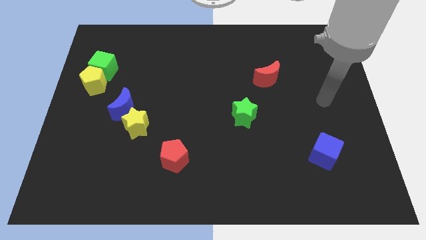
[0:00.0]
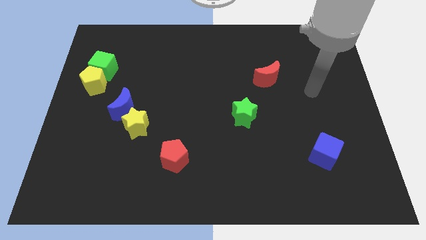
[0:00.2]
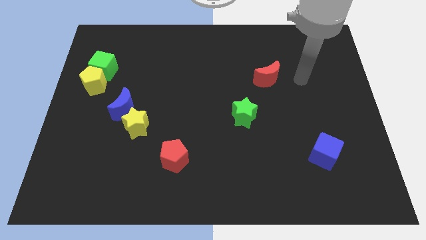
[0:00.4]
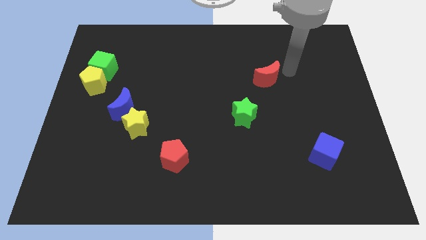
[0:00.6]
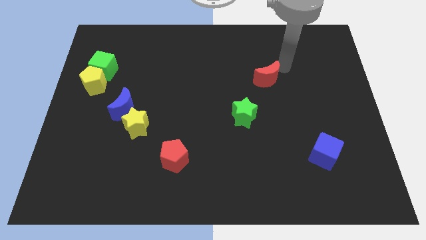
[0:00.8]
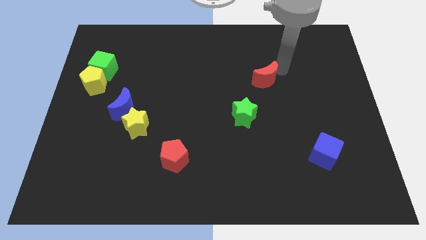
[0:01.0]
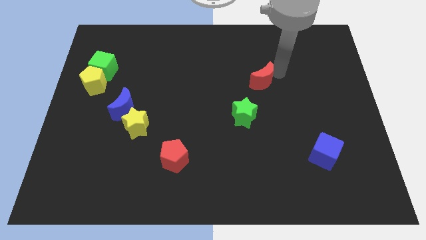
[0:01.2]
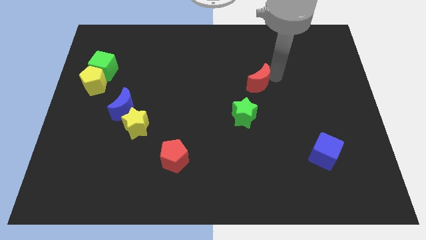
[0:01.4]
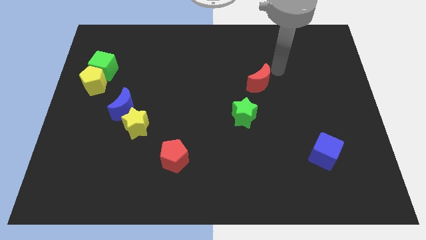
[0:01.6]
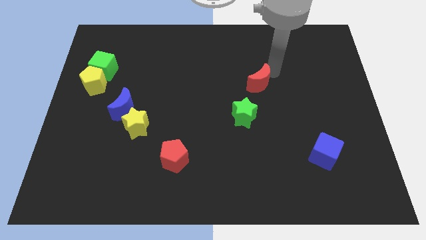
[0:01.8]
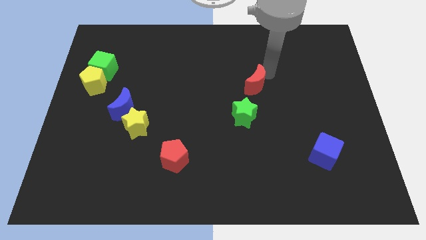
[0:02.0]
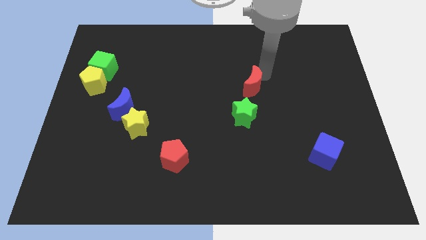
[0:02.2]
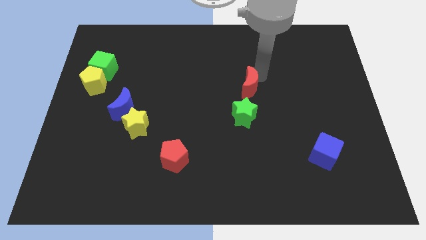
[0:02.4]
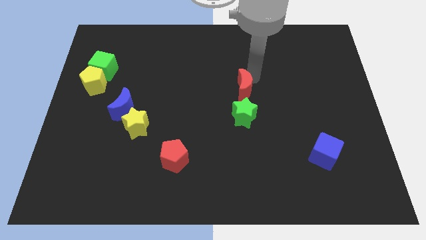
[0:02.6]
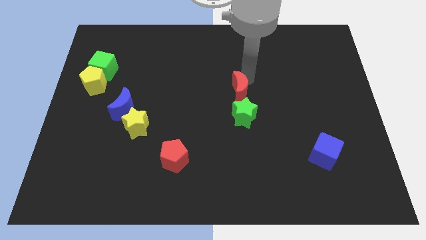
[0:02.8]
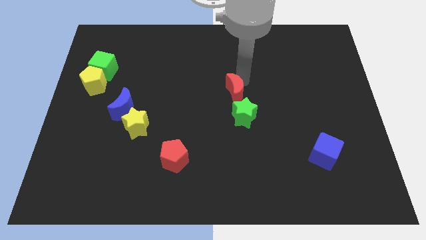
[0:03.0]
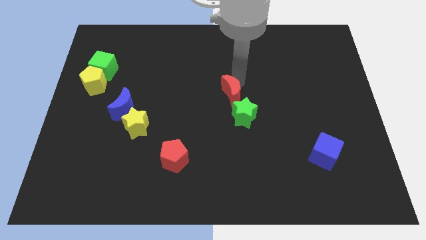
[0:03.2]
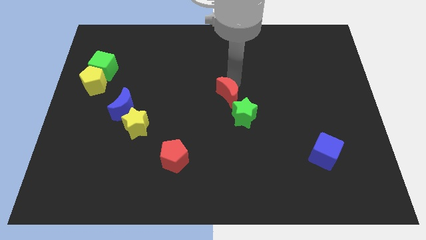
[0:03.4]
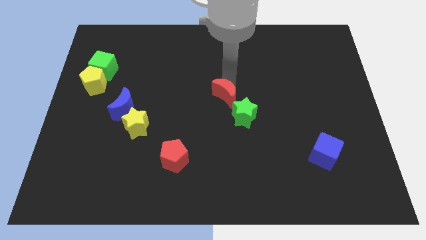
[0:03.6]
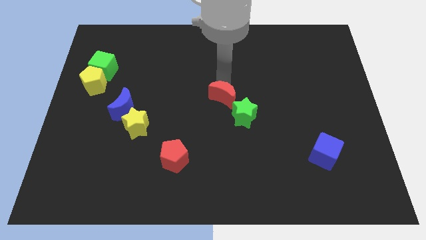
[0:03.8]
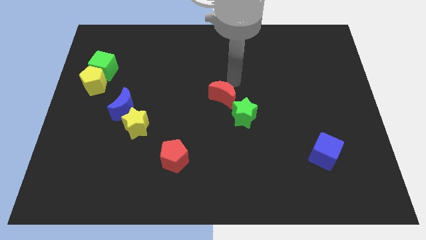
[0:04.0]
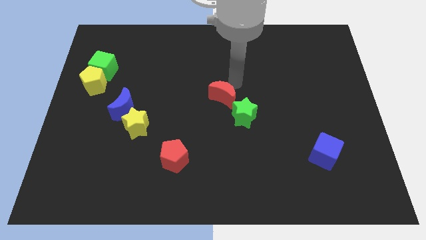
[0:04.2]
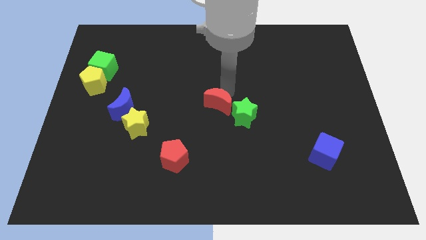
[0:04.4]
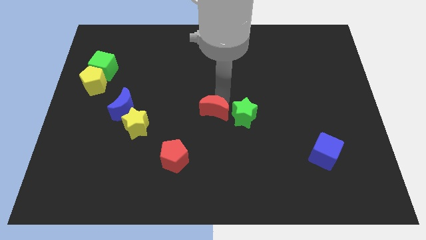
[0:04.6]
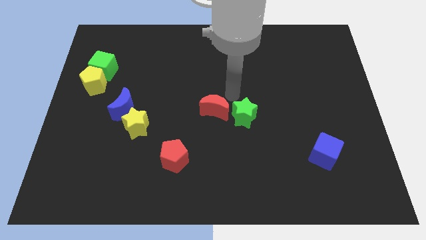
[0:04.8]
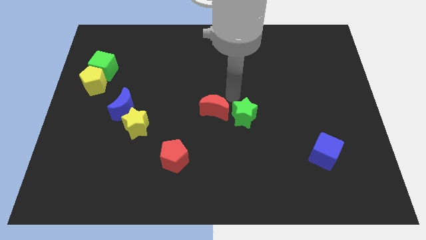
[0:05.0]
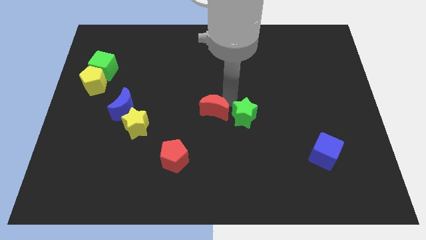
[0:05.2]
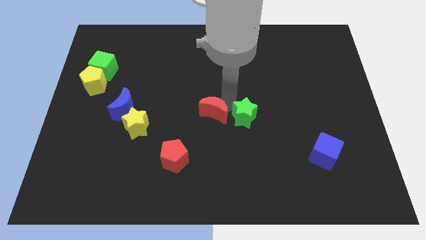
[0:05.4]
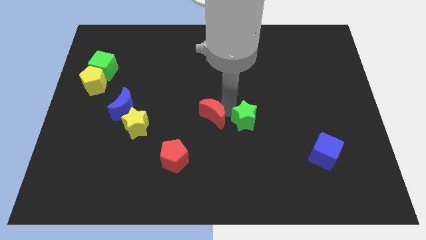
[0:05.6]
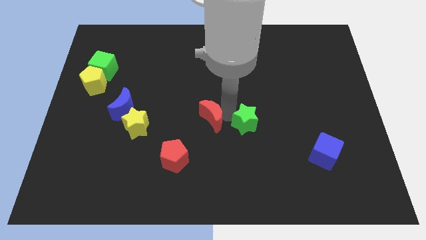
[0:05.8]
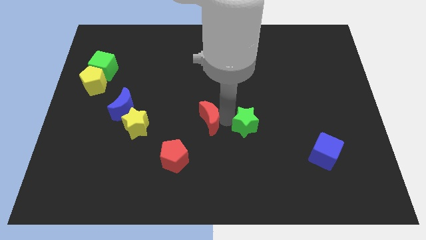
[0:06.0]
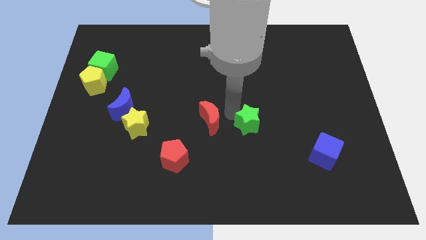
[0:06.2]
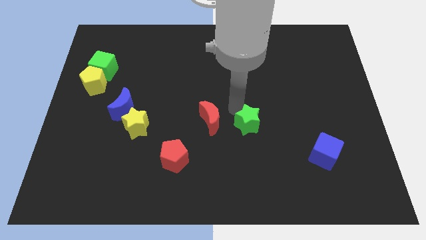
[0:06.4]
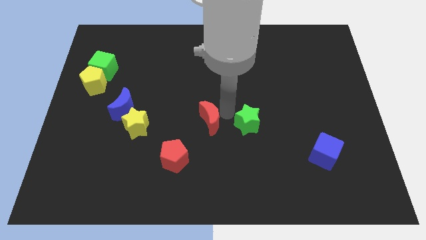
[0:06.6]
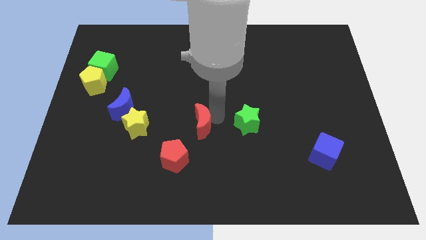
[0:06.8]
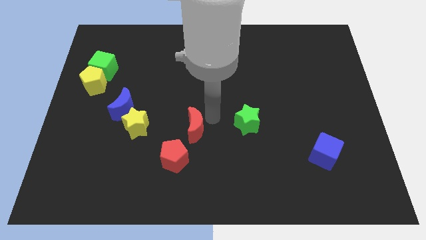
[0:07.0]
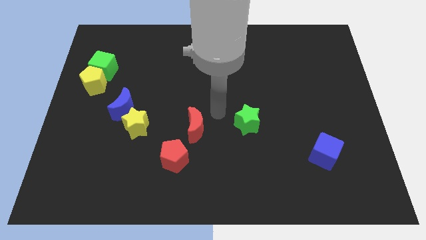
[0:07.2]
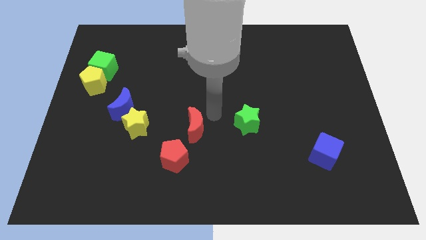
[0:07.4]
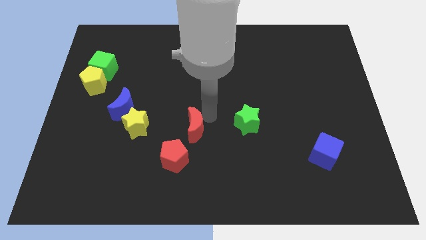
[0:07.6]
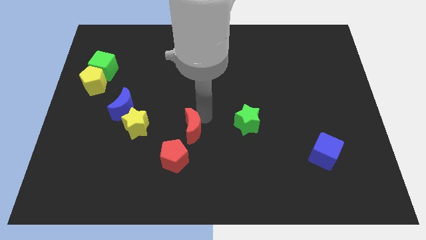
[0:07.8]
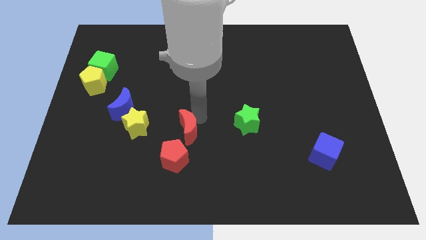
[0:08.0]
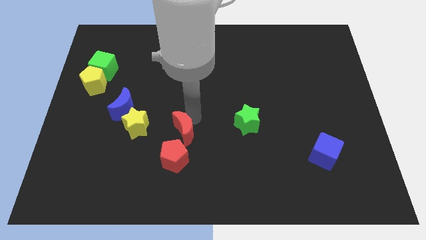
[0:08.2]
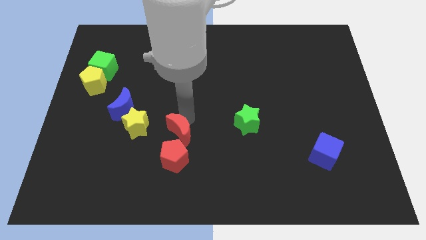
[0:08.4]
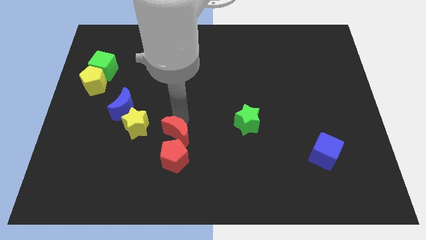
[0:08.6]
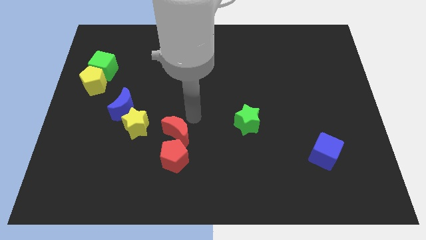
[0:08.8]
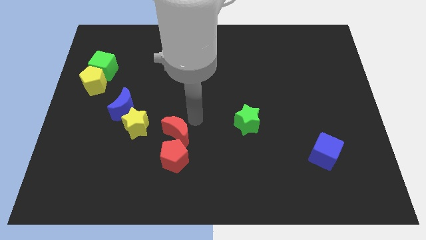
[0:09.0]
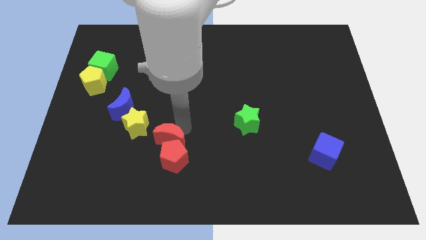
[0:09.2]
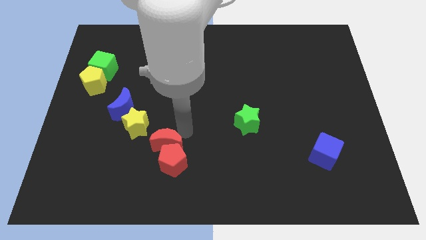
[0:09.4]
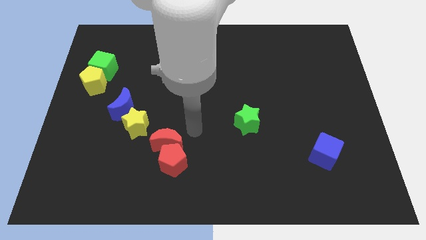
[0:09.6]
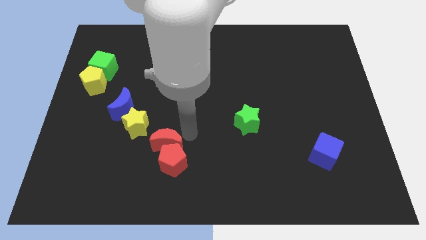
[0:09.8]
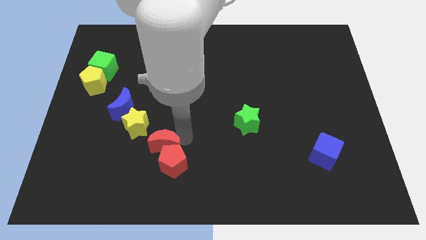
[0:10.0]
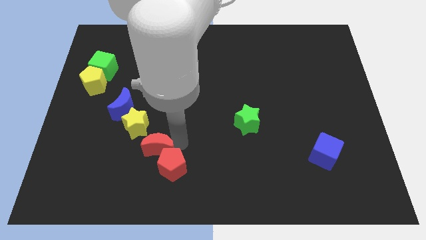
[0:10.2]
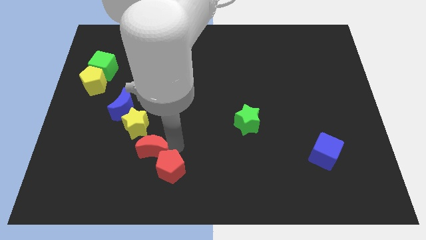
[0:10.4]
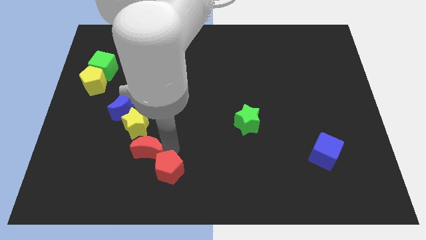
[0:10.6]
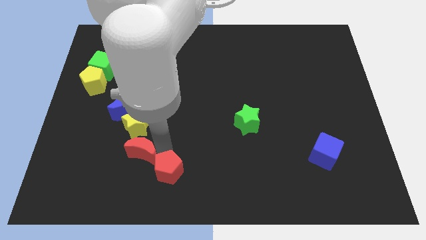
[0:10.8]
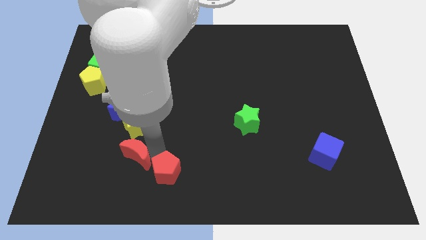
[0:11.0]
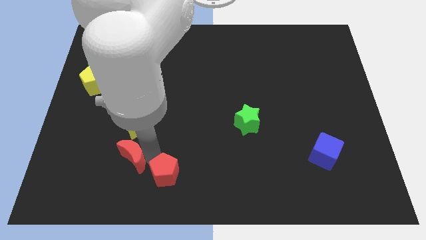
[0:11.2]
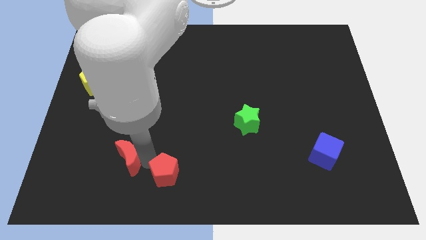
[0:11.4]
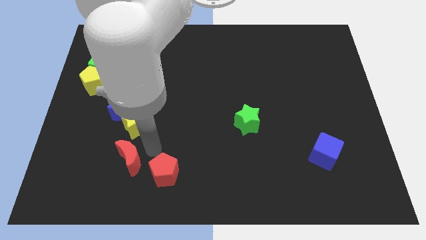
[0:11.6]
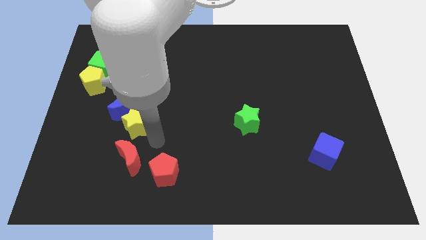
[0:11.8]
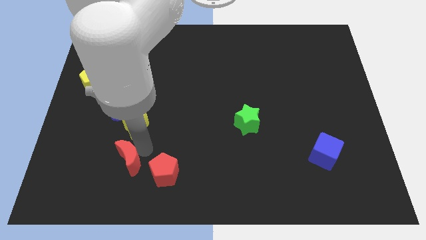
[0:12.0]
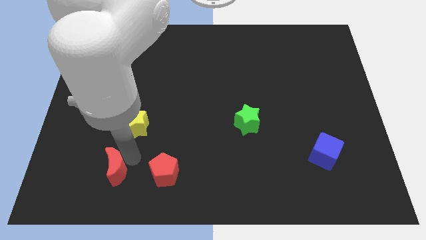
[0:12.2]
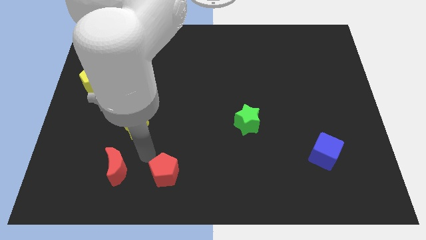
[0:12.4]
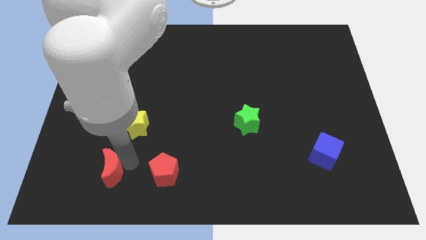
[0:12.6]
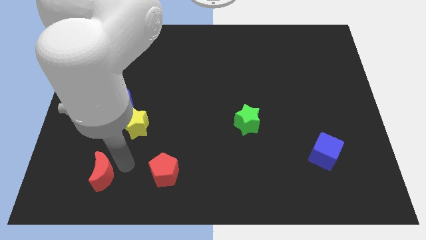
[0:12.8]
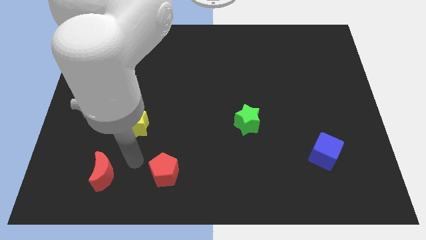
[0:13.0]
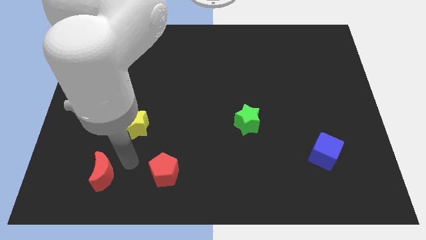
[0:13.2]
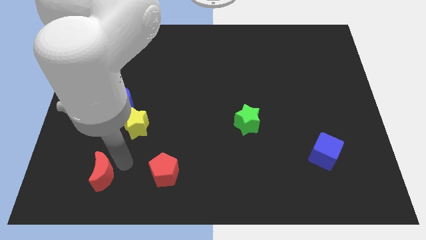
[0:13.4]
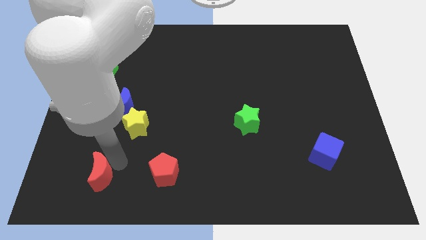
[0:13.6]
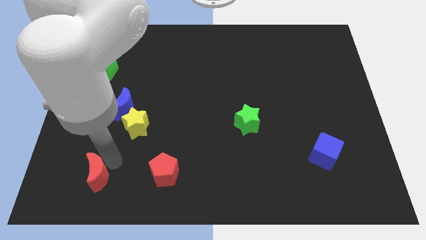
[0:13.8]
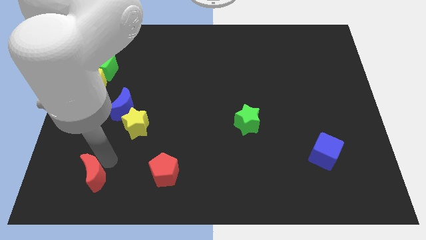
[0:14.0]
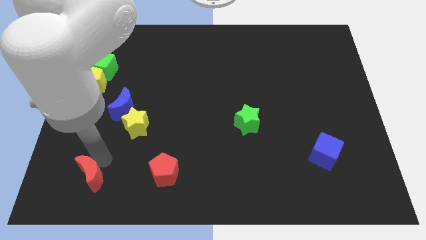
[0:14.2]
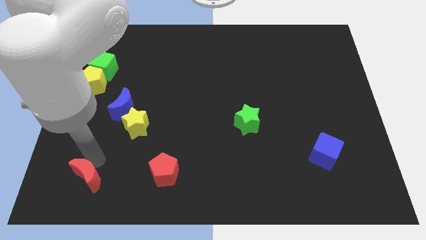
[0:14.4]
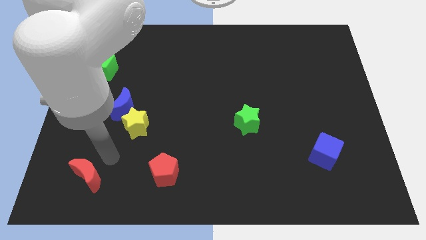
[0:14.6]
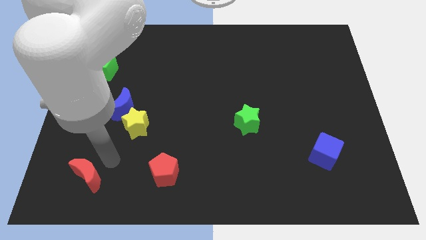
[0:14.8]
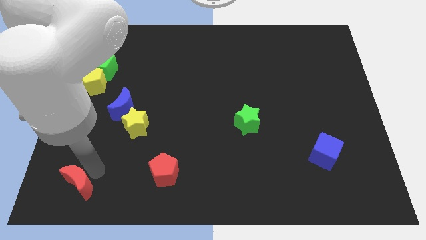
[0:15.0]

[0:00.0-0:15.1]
push the red moon to the bottom left corner
